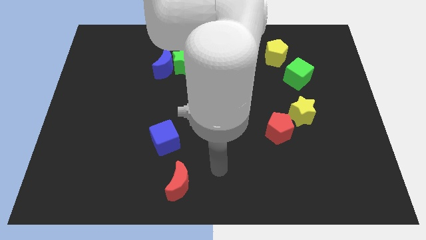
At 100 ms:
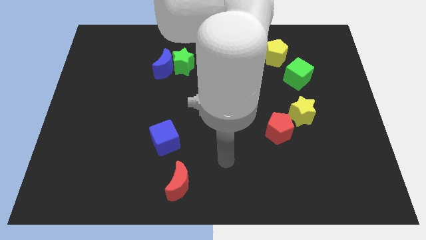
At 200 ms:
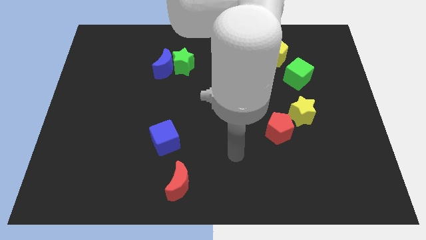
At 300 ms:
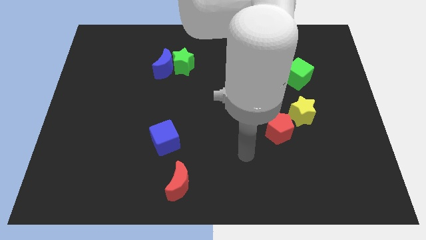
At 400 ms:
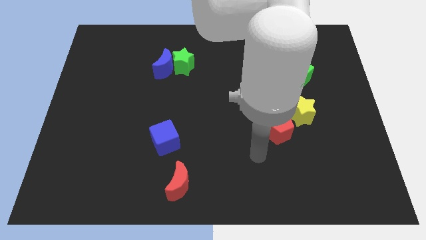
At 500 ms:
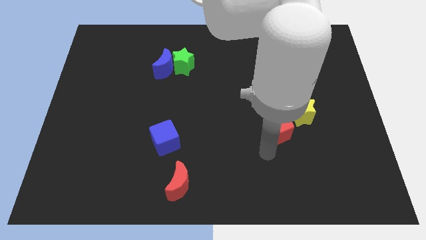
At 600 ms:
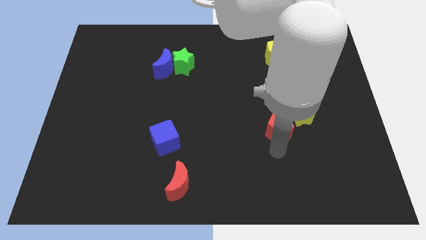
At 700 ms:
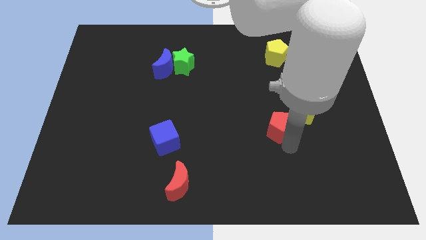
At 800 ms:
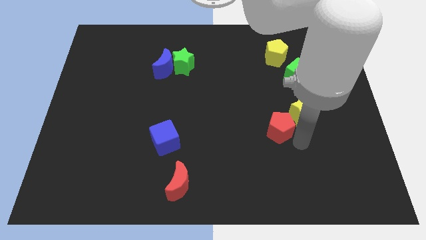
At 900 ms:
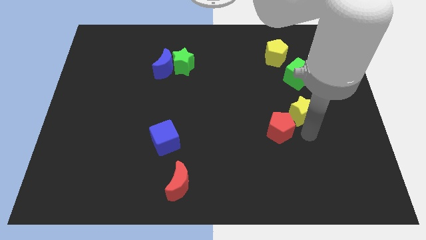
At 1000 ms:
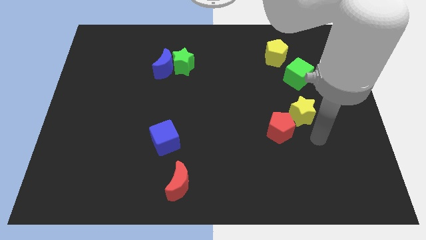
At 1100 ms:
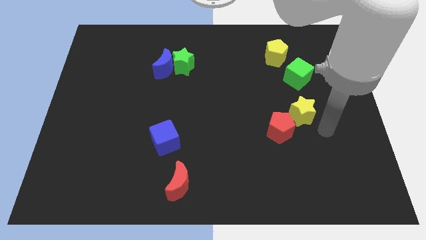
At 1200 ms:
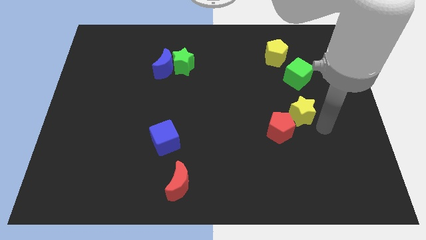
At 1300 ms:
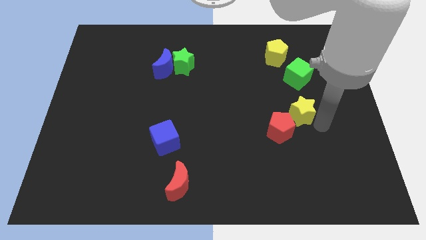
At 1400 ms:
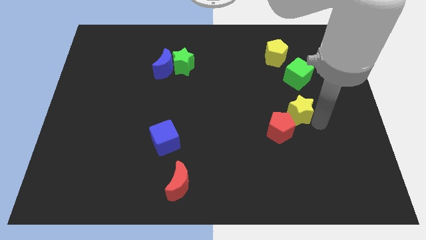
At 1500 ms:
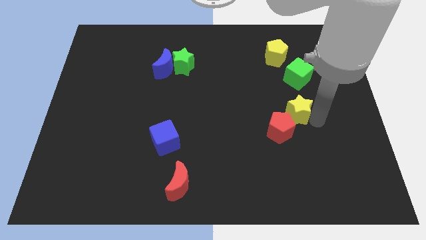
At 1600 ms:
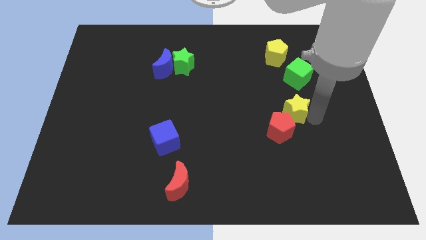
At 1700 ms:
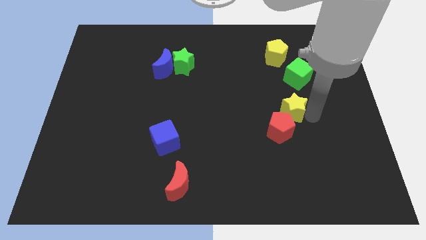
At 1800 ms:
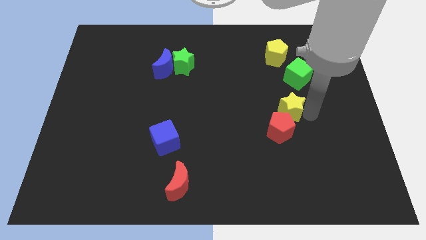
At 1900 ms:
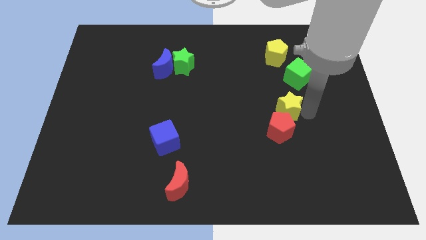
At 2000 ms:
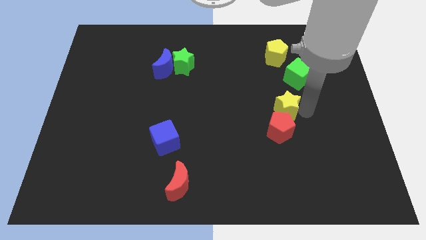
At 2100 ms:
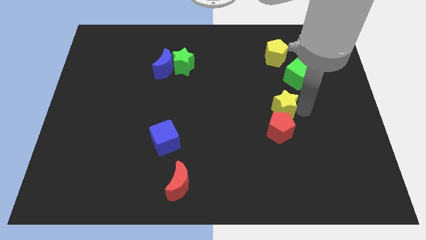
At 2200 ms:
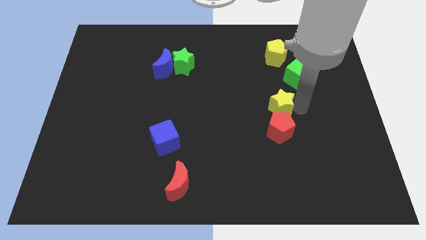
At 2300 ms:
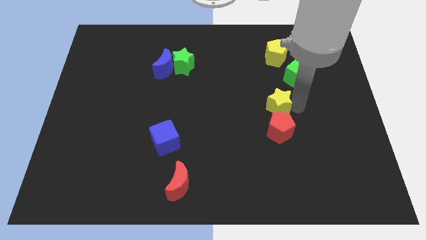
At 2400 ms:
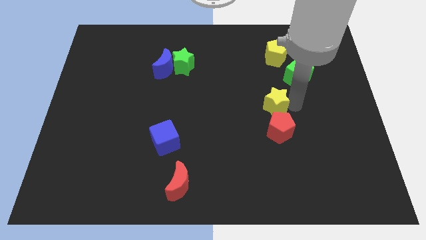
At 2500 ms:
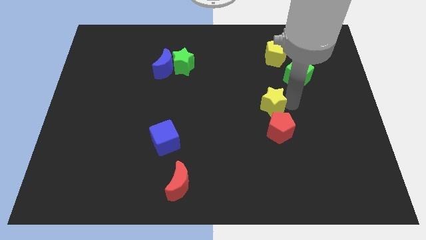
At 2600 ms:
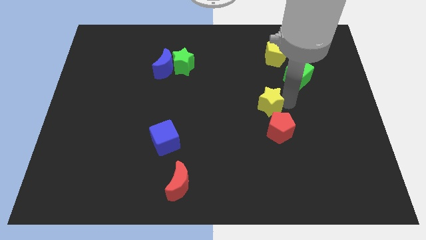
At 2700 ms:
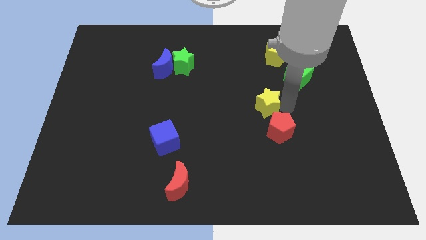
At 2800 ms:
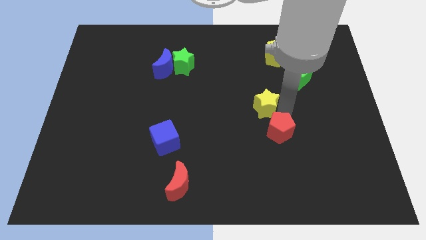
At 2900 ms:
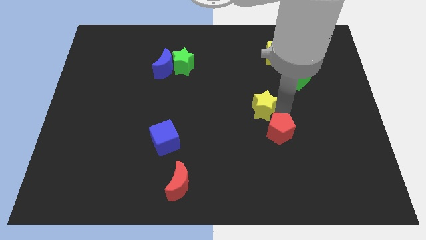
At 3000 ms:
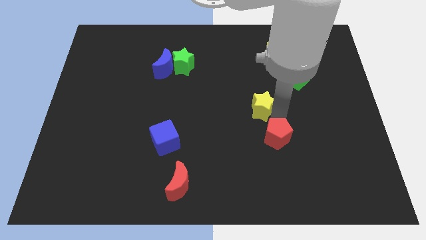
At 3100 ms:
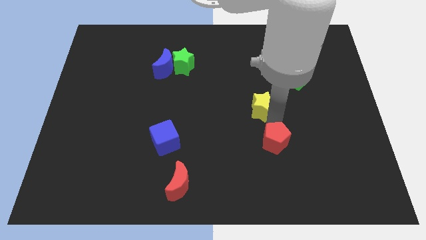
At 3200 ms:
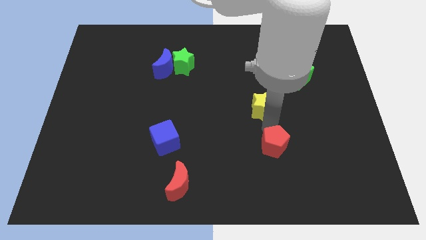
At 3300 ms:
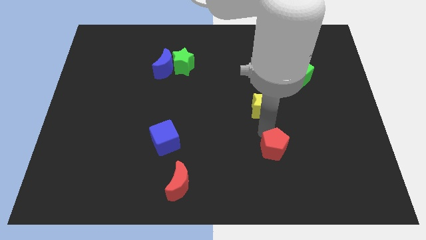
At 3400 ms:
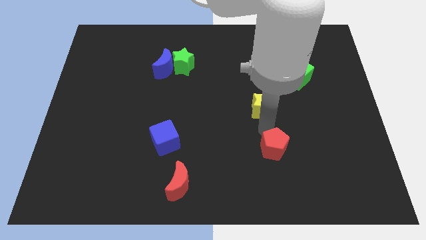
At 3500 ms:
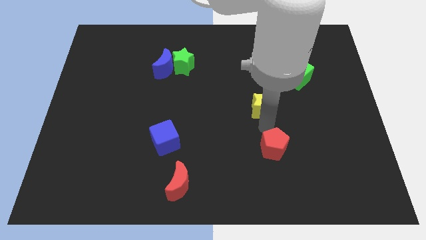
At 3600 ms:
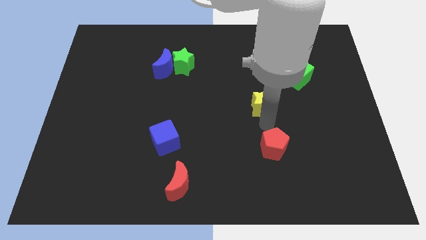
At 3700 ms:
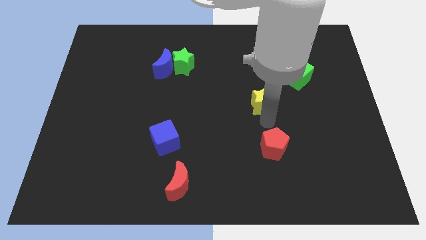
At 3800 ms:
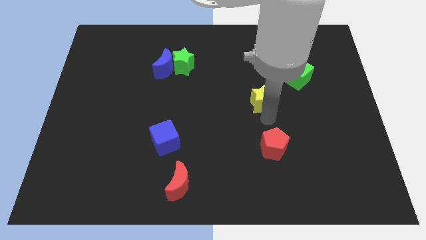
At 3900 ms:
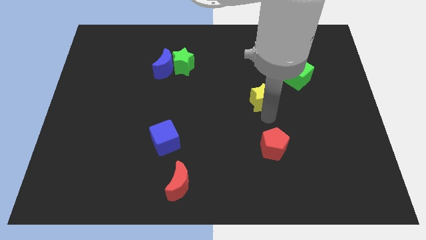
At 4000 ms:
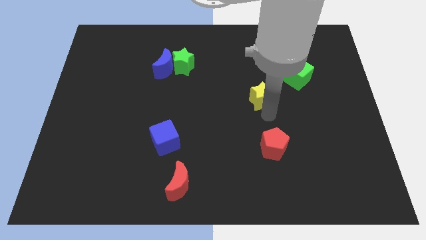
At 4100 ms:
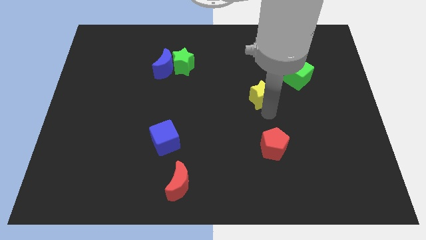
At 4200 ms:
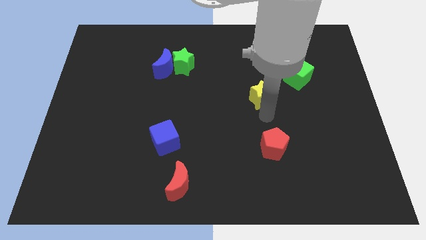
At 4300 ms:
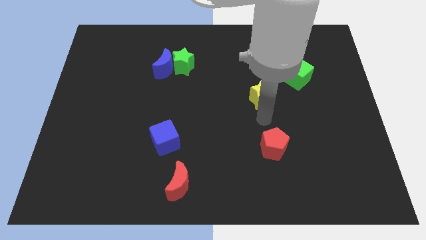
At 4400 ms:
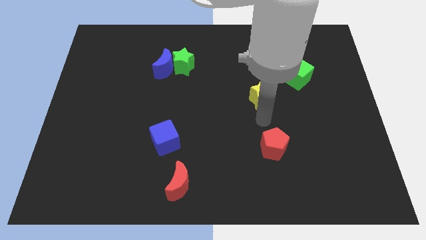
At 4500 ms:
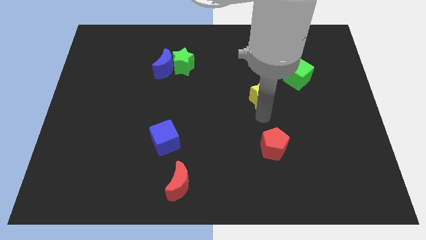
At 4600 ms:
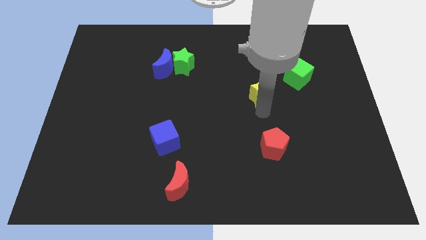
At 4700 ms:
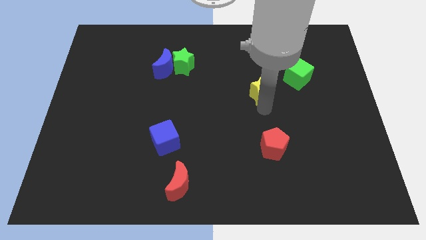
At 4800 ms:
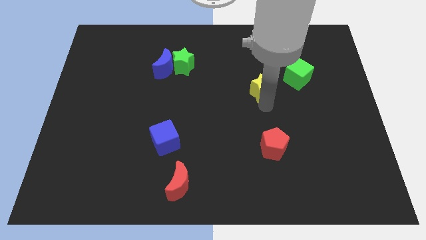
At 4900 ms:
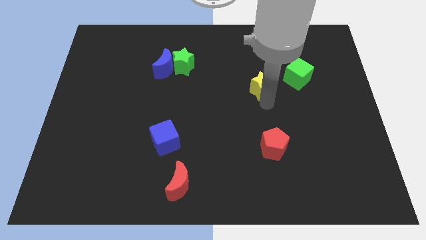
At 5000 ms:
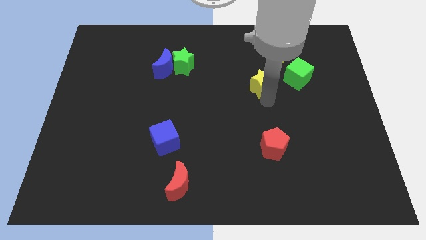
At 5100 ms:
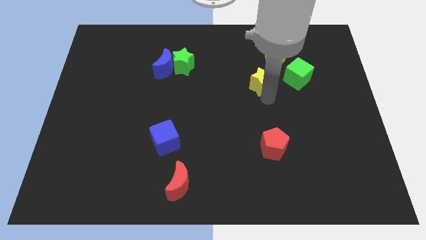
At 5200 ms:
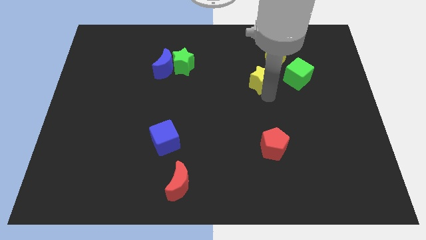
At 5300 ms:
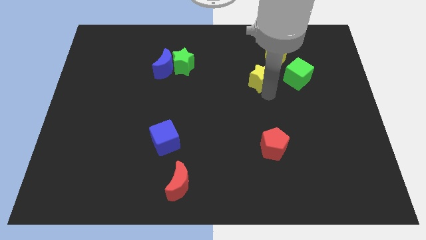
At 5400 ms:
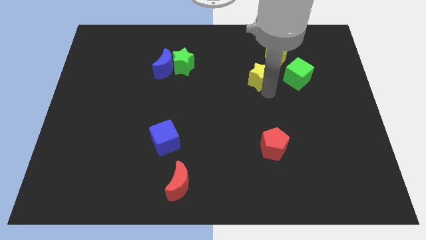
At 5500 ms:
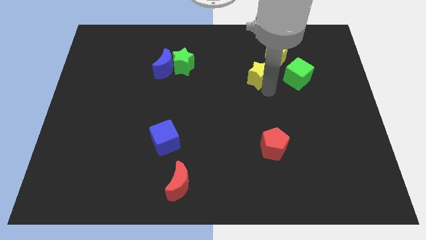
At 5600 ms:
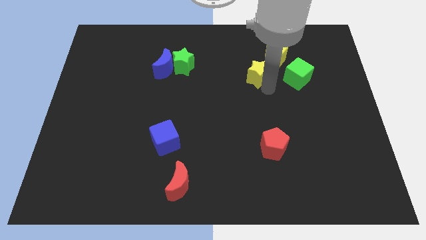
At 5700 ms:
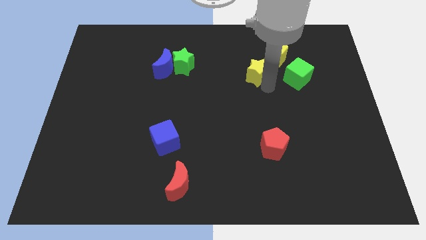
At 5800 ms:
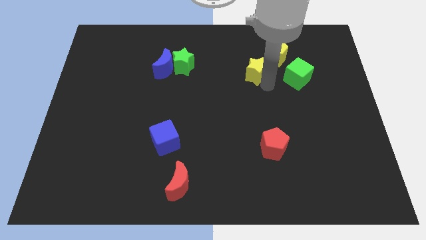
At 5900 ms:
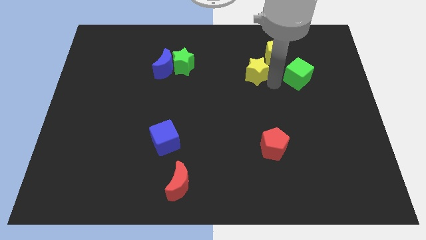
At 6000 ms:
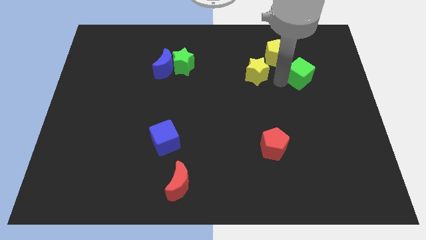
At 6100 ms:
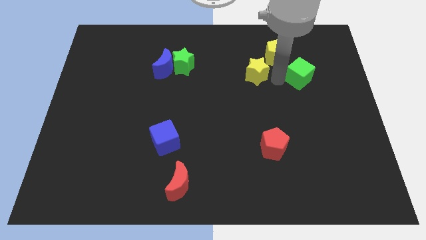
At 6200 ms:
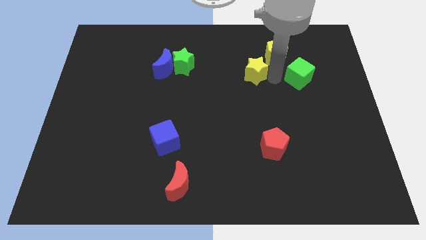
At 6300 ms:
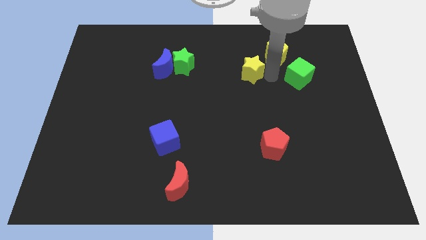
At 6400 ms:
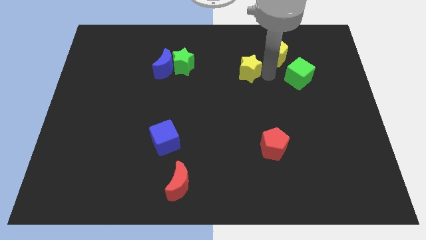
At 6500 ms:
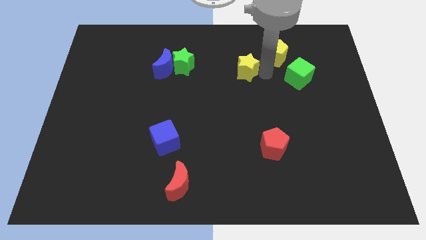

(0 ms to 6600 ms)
put the yellow star right of the green star
